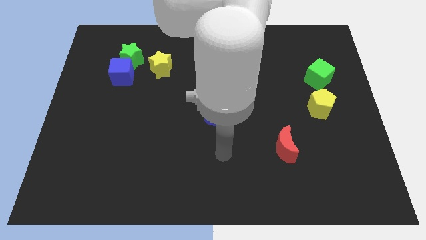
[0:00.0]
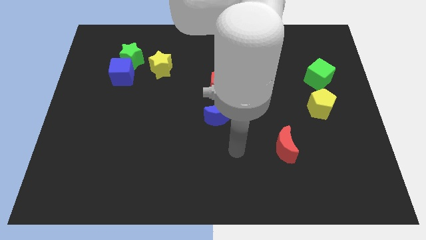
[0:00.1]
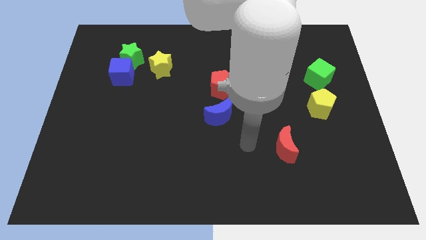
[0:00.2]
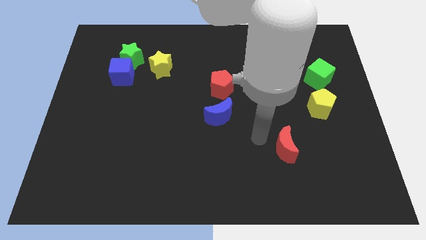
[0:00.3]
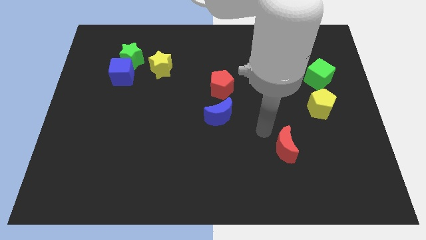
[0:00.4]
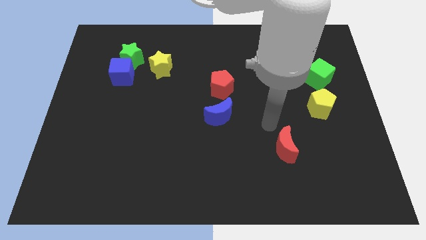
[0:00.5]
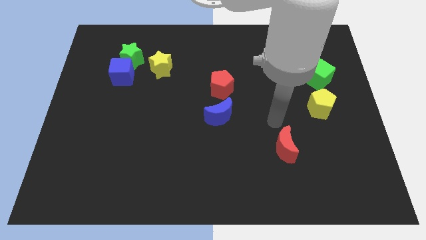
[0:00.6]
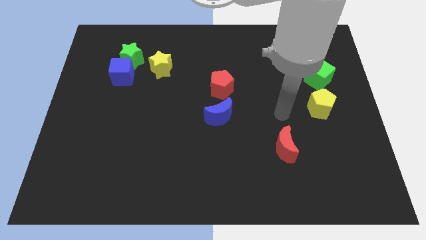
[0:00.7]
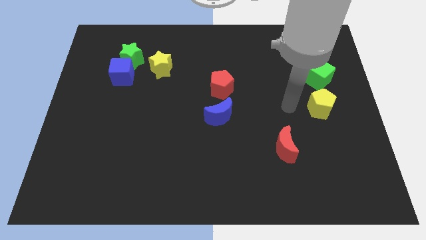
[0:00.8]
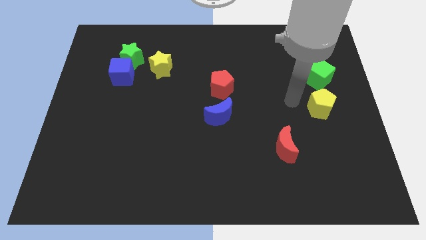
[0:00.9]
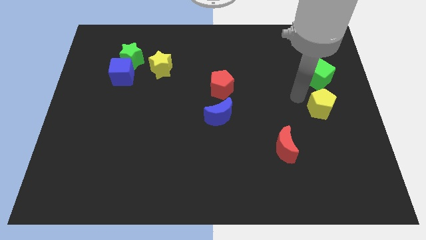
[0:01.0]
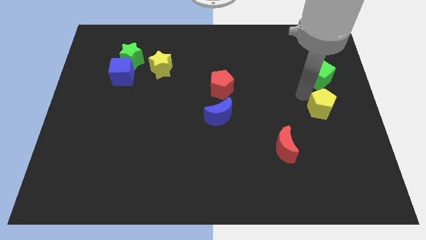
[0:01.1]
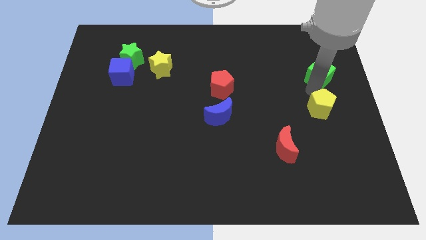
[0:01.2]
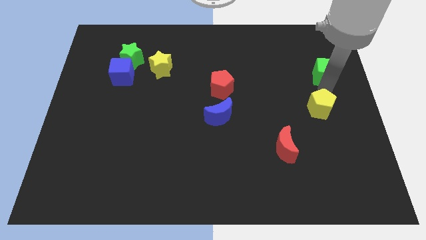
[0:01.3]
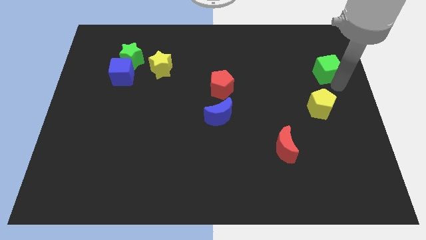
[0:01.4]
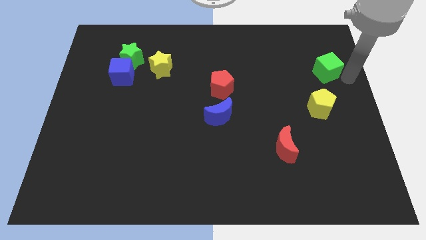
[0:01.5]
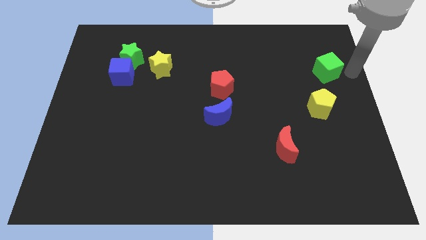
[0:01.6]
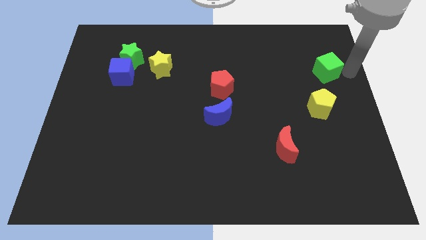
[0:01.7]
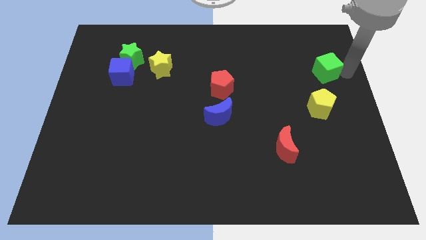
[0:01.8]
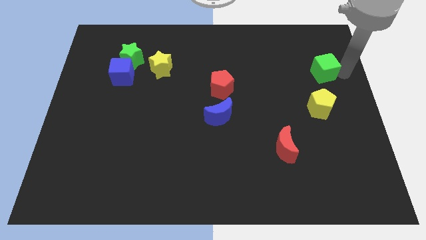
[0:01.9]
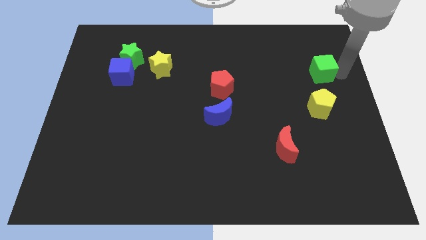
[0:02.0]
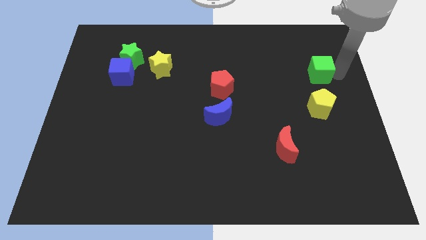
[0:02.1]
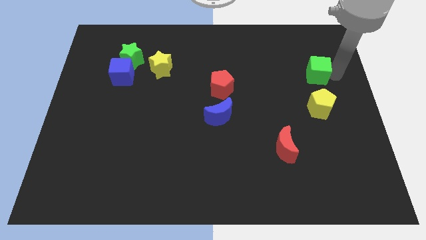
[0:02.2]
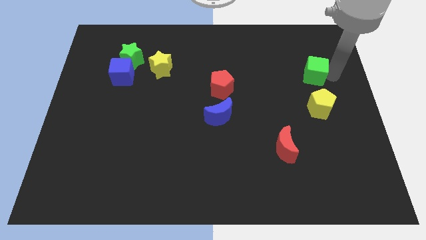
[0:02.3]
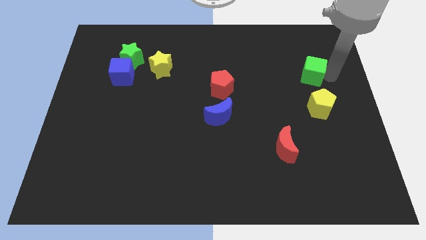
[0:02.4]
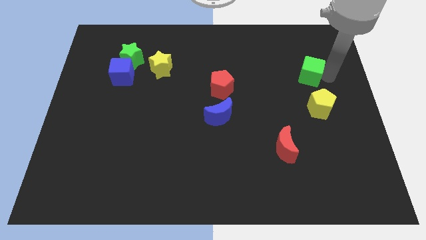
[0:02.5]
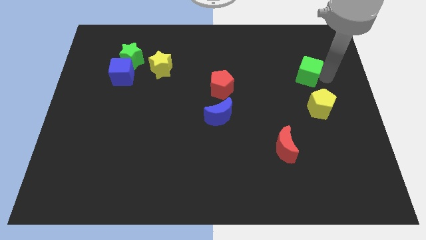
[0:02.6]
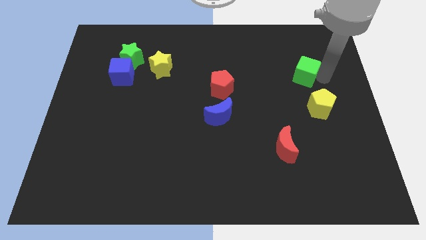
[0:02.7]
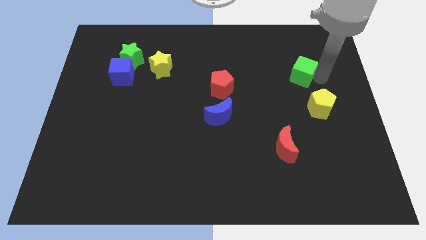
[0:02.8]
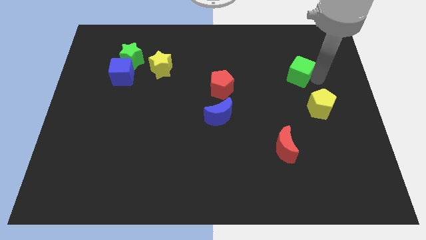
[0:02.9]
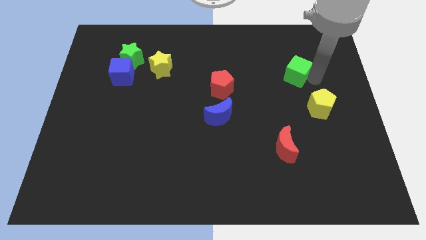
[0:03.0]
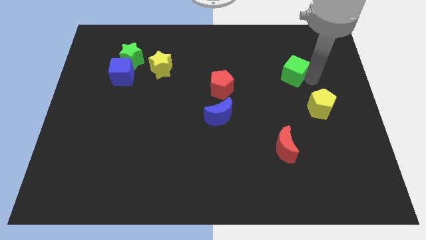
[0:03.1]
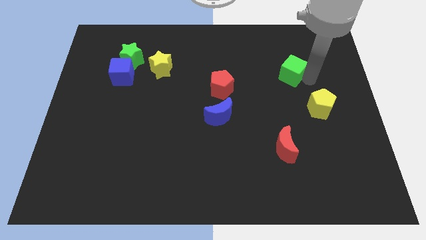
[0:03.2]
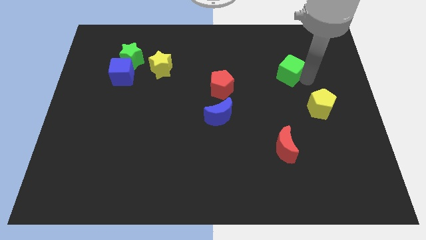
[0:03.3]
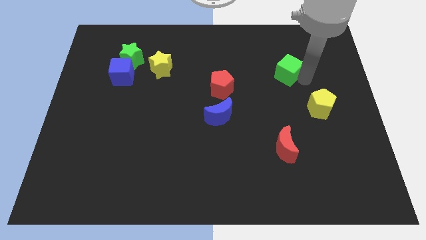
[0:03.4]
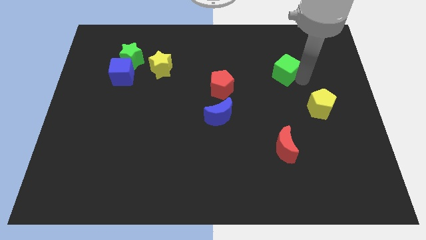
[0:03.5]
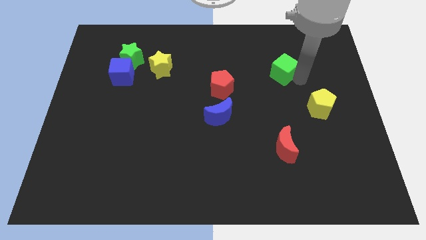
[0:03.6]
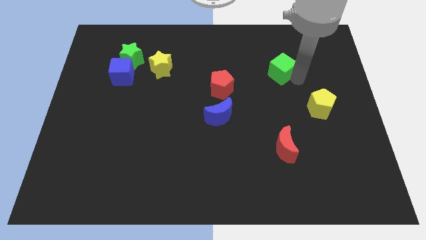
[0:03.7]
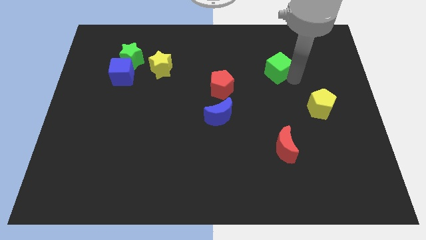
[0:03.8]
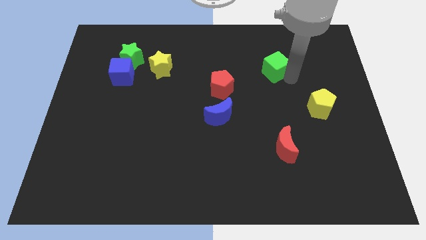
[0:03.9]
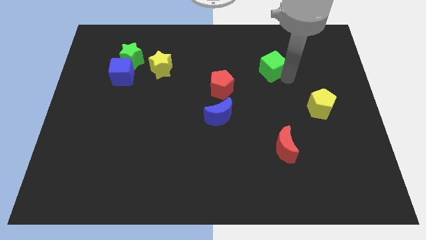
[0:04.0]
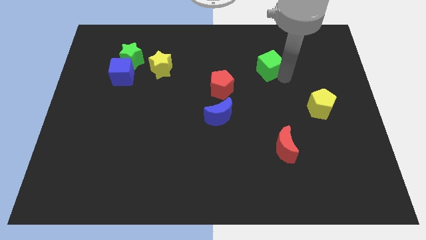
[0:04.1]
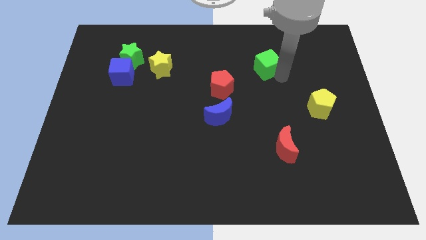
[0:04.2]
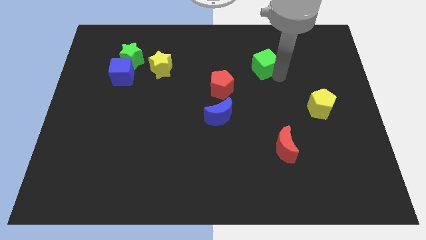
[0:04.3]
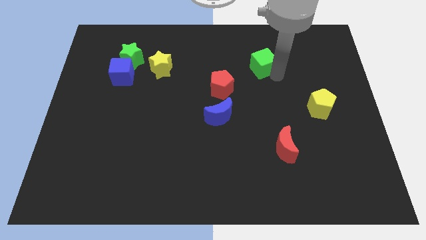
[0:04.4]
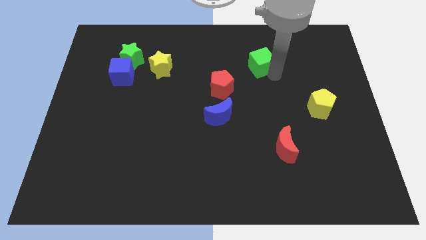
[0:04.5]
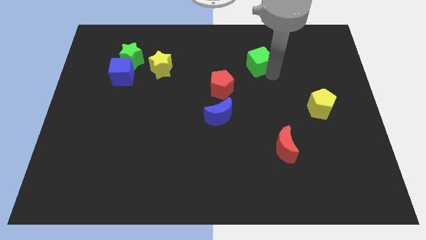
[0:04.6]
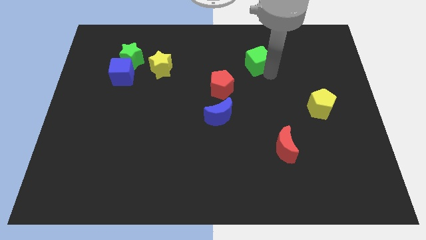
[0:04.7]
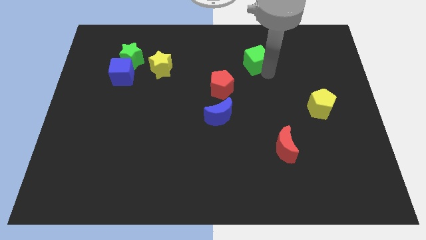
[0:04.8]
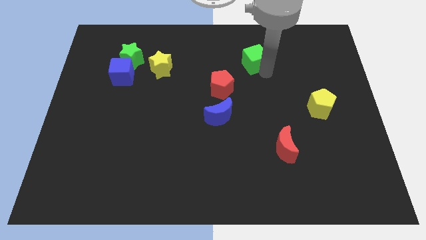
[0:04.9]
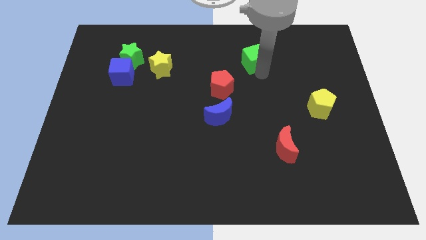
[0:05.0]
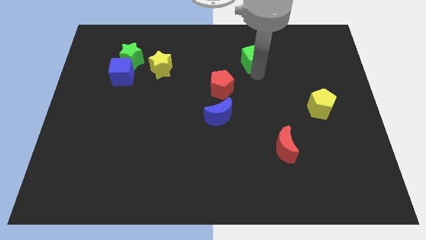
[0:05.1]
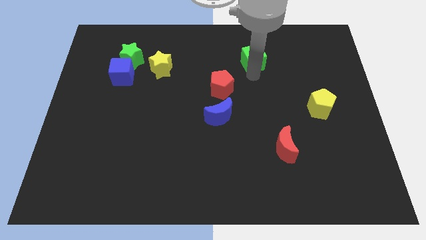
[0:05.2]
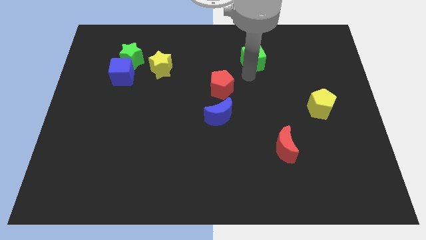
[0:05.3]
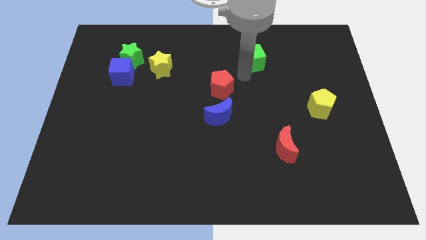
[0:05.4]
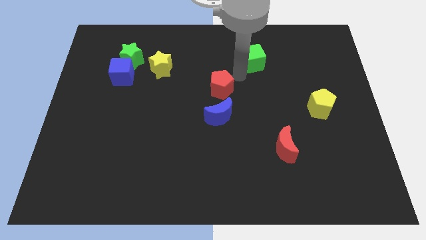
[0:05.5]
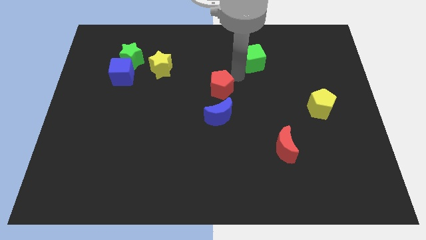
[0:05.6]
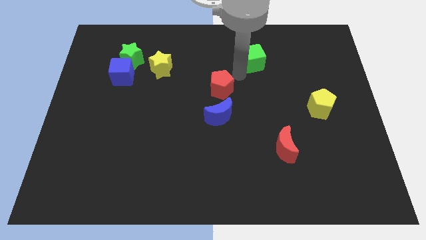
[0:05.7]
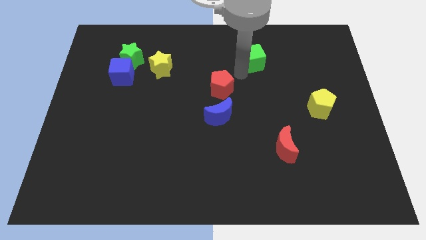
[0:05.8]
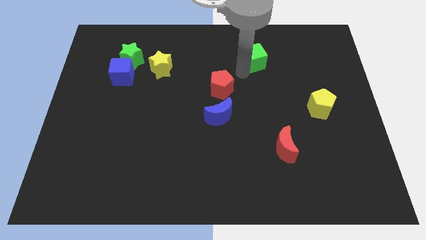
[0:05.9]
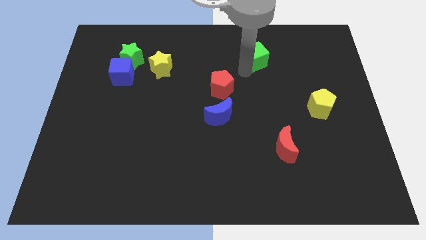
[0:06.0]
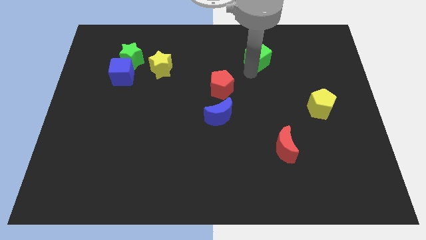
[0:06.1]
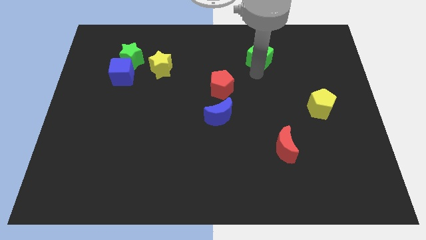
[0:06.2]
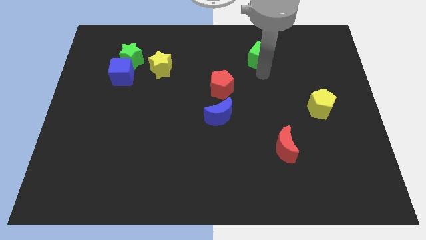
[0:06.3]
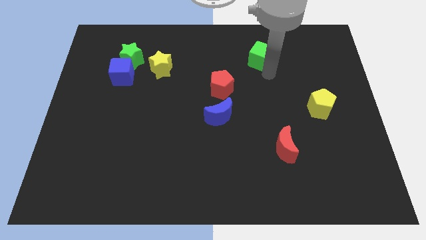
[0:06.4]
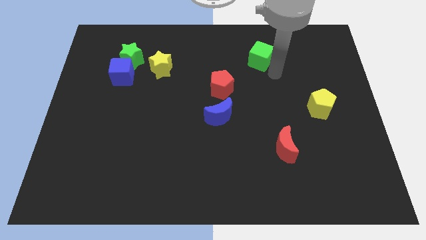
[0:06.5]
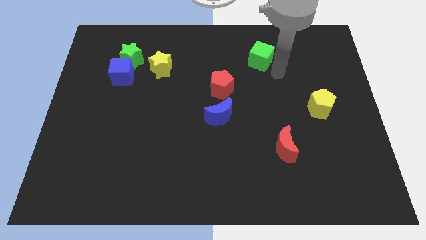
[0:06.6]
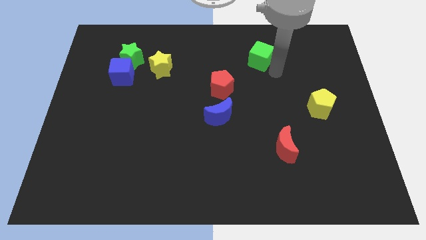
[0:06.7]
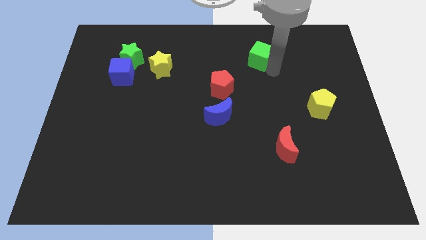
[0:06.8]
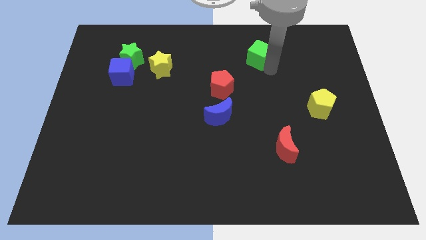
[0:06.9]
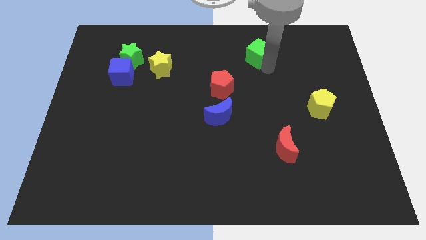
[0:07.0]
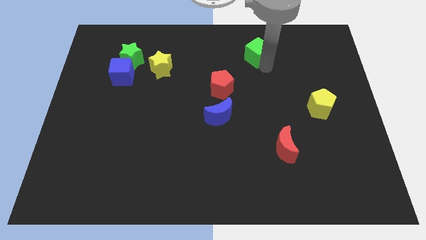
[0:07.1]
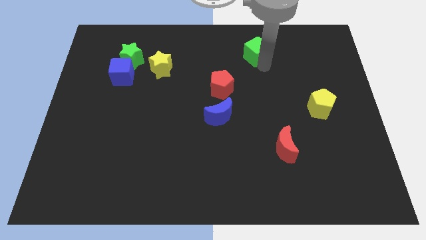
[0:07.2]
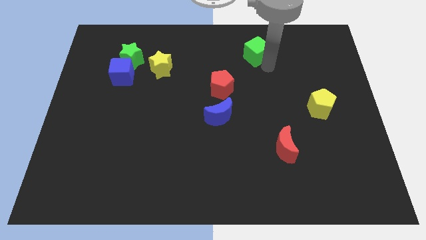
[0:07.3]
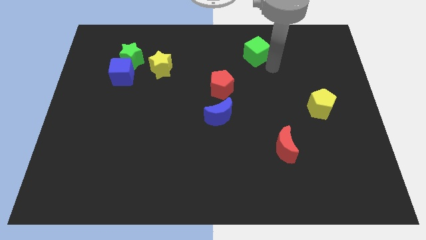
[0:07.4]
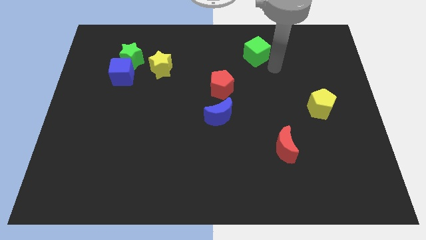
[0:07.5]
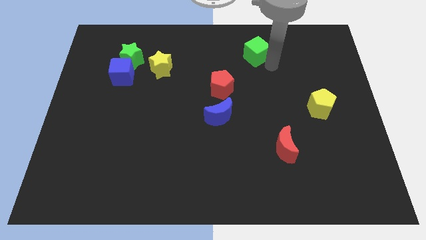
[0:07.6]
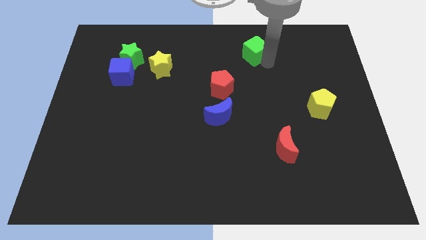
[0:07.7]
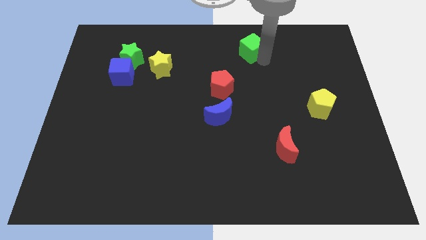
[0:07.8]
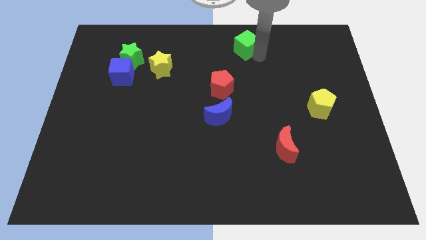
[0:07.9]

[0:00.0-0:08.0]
push the green cube to the top
